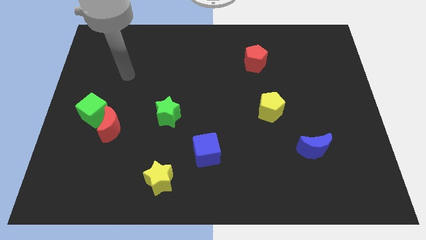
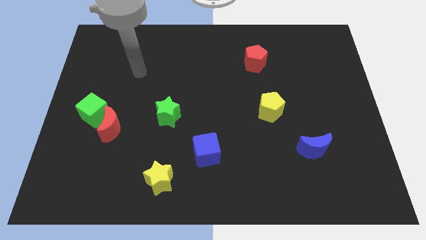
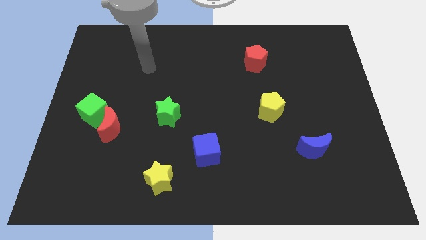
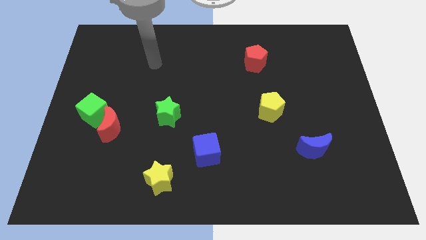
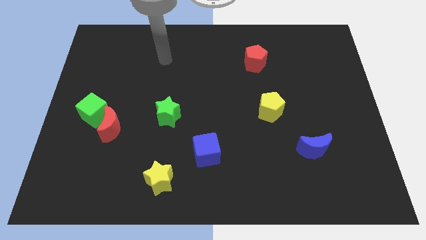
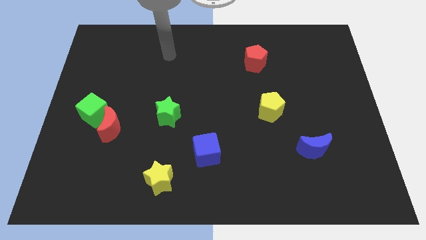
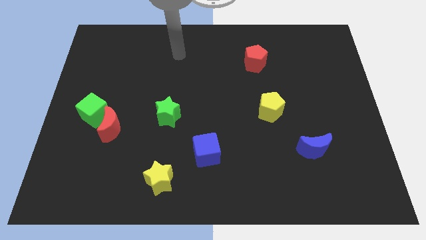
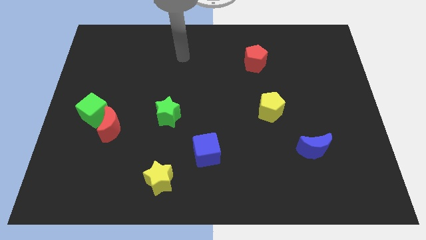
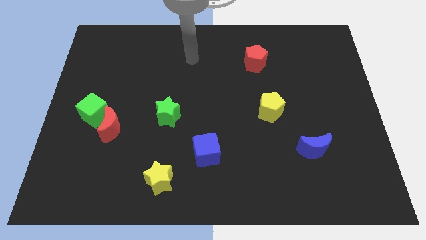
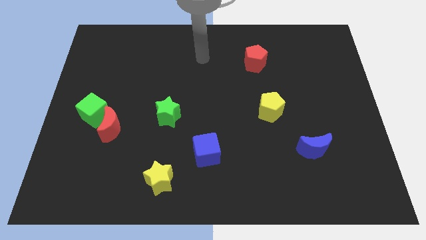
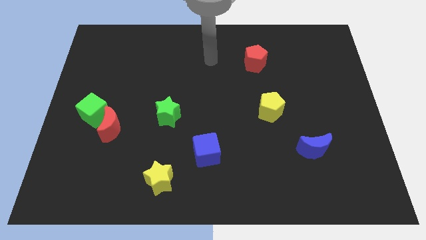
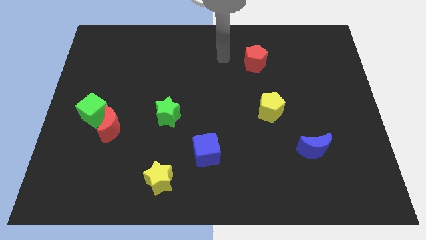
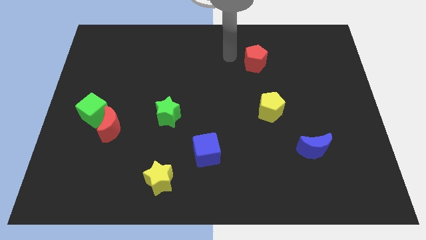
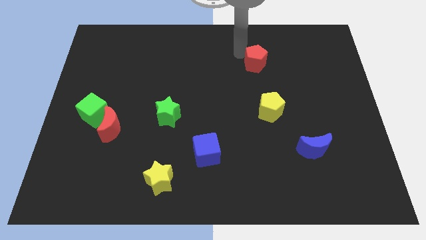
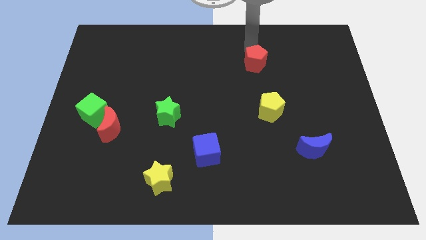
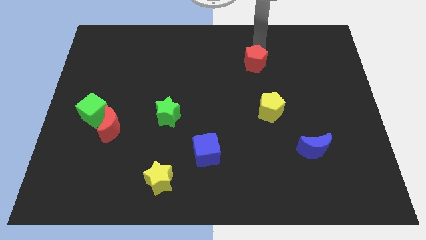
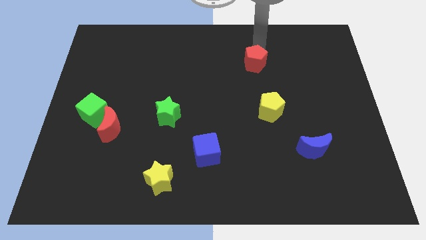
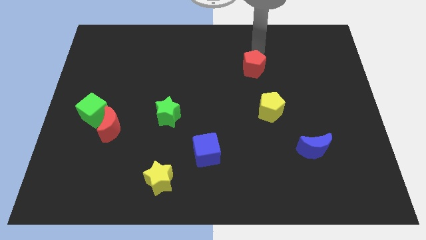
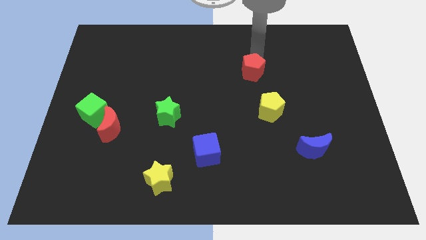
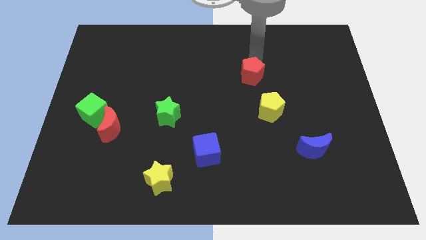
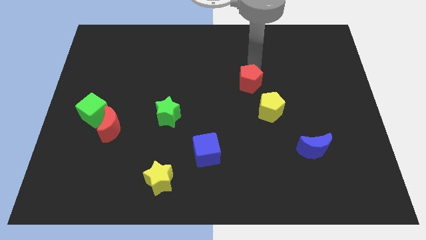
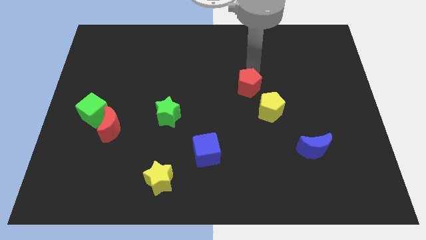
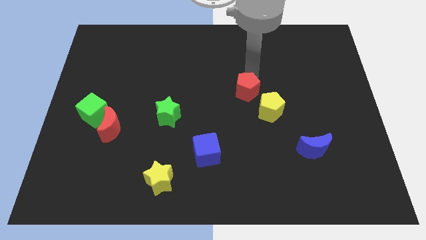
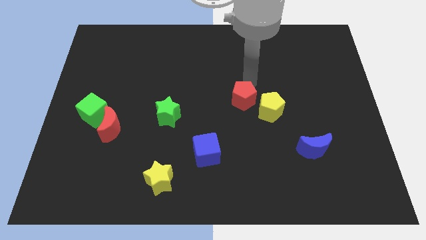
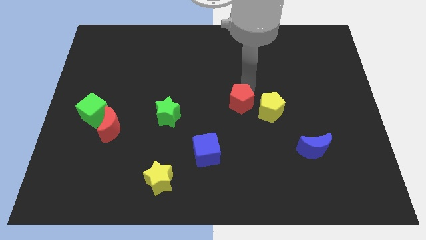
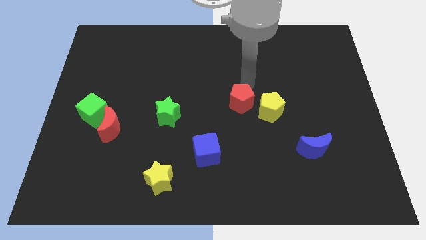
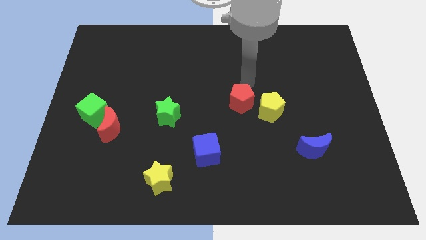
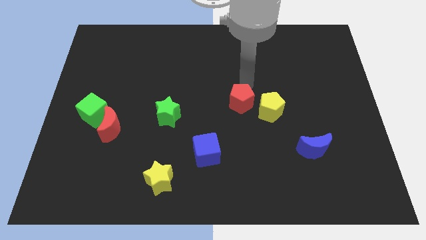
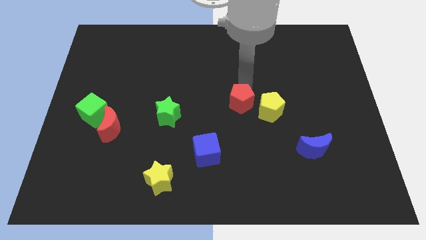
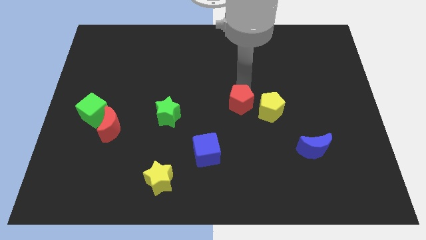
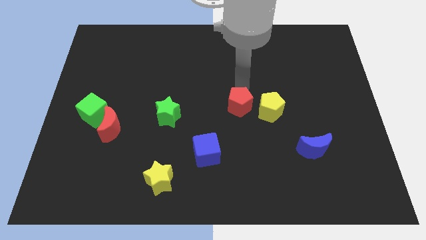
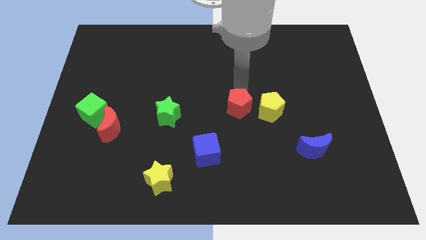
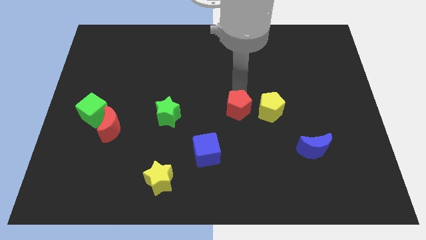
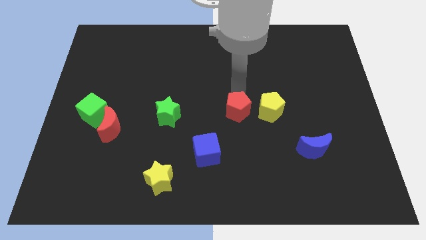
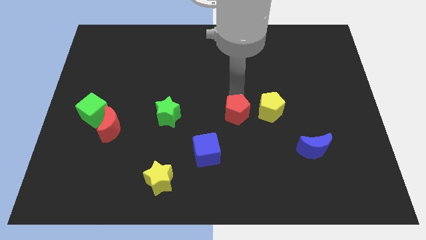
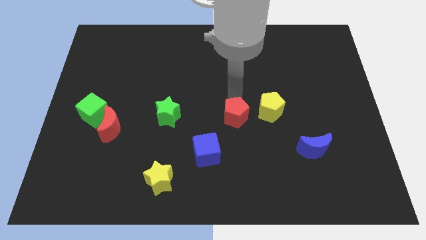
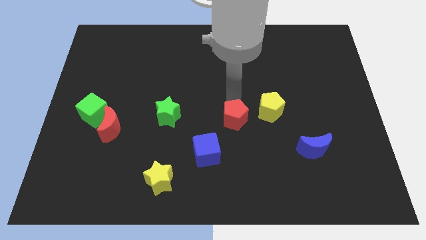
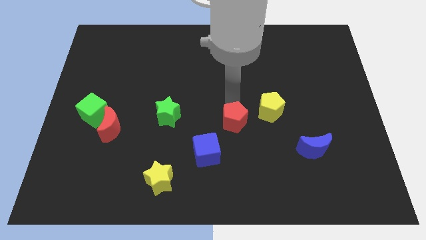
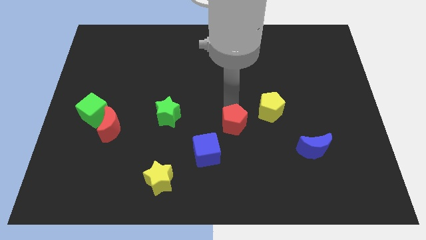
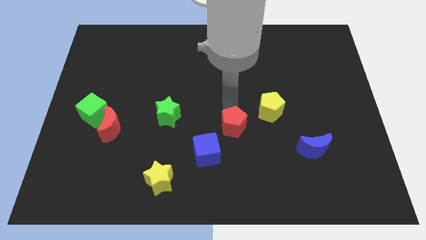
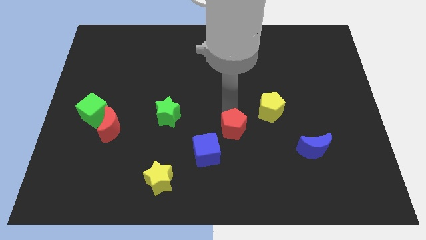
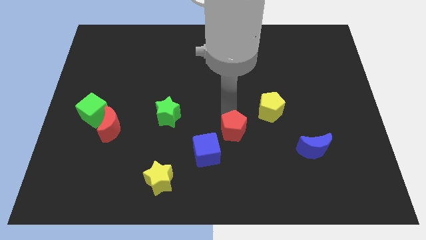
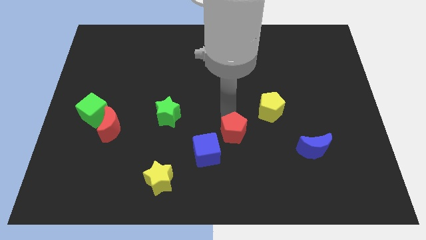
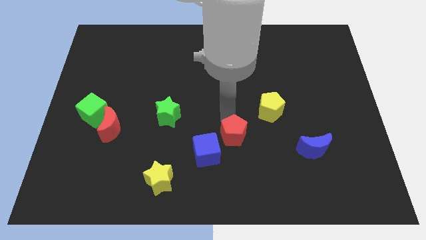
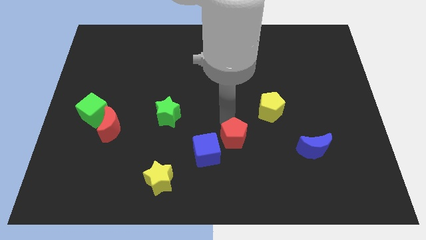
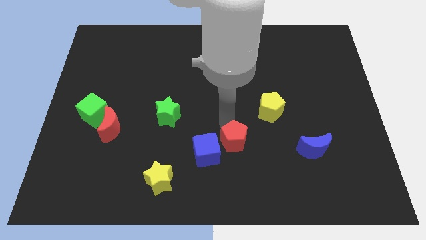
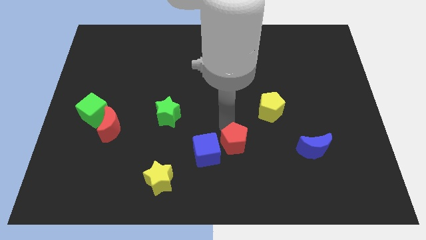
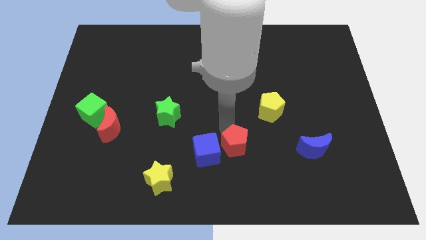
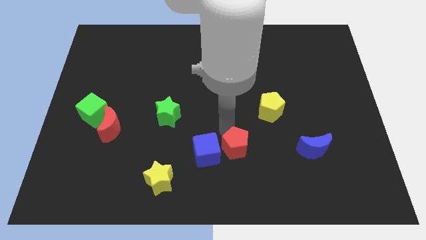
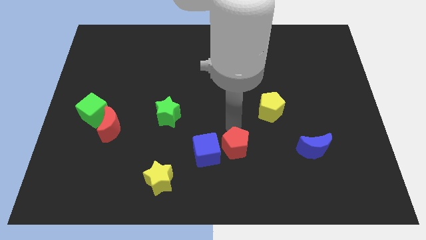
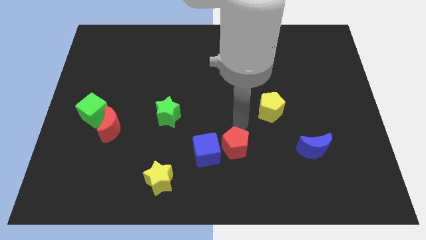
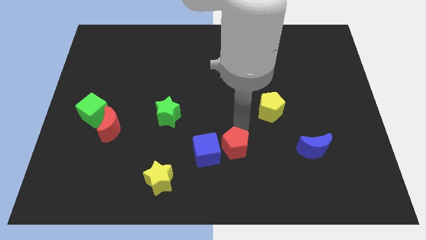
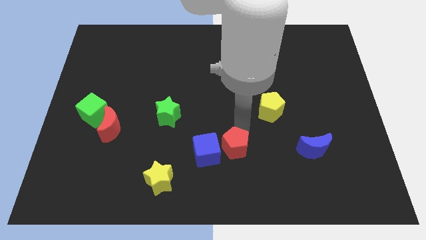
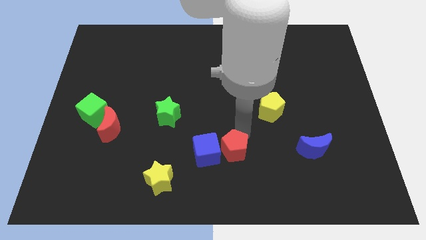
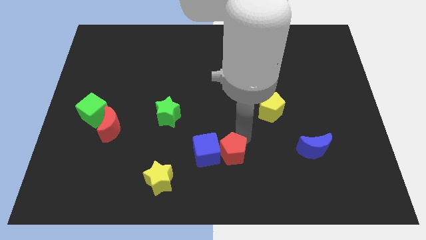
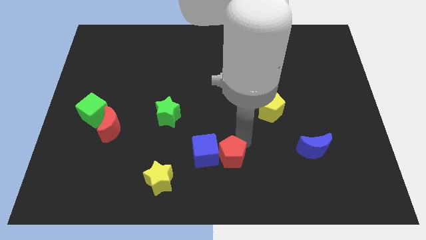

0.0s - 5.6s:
slide the red pentagon to the bottom side

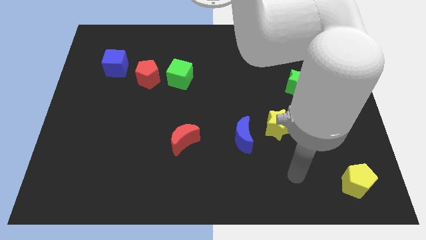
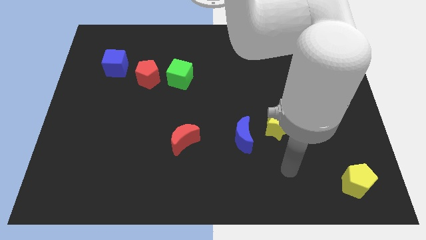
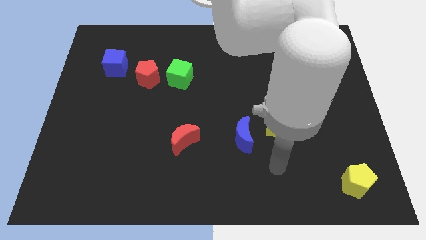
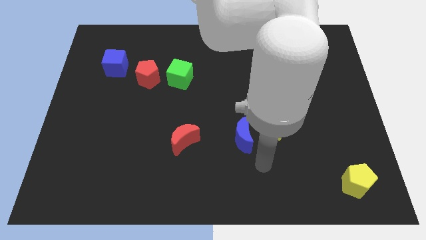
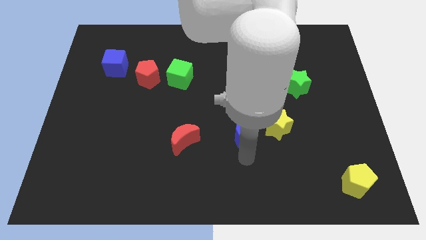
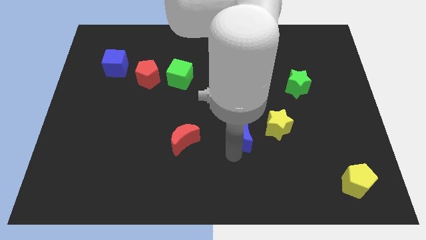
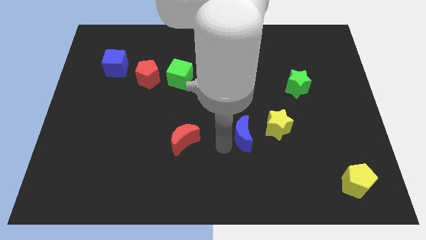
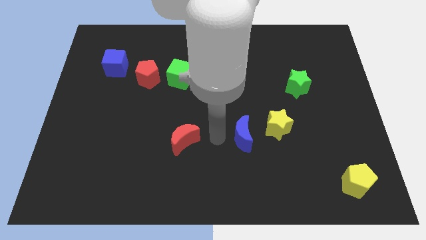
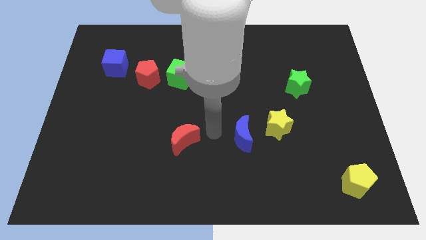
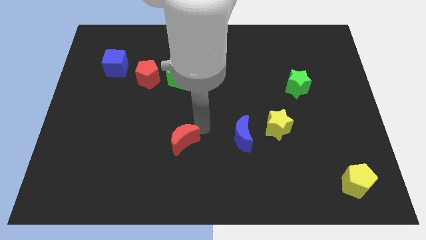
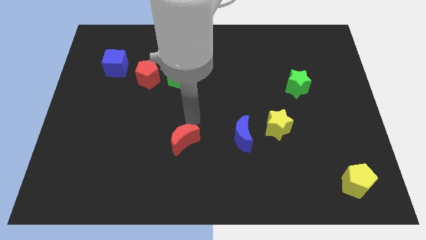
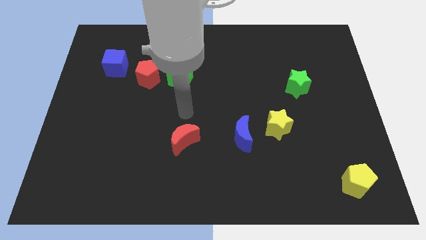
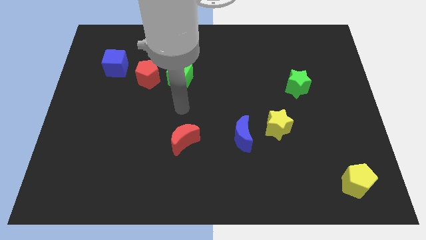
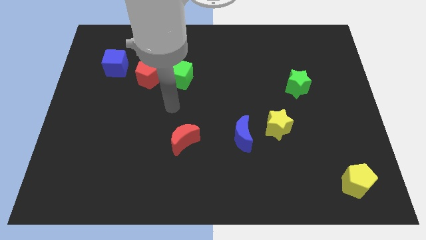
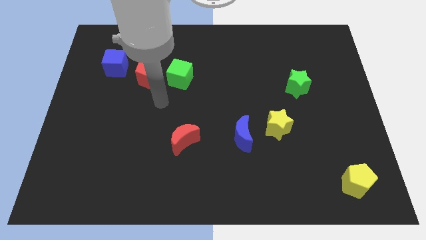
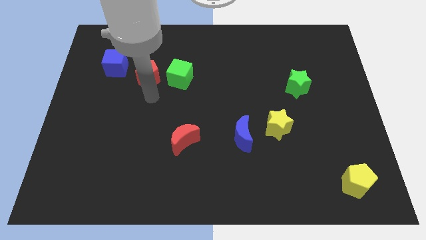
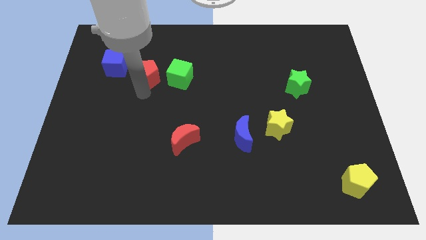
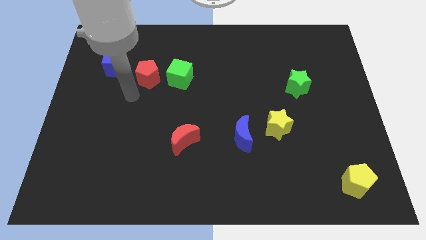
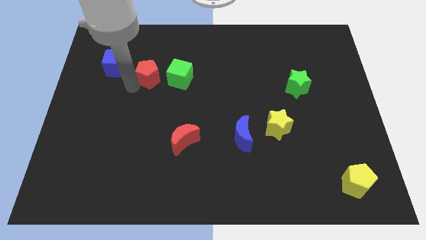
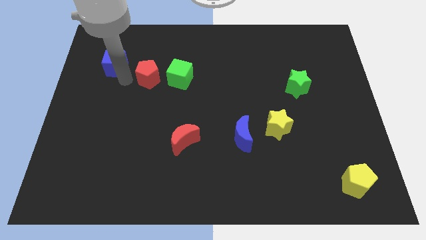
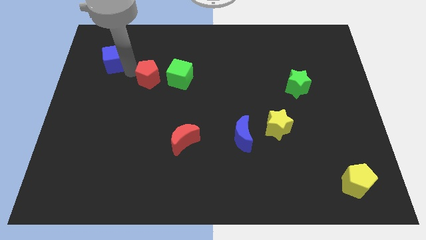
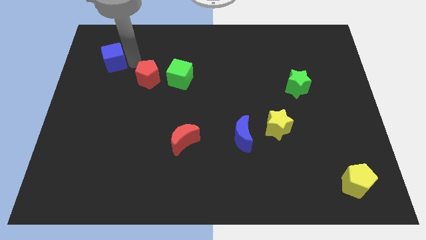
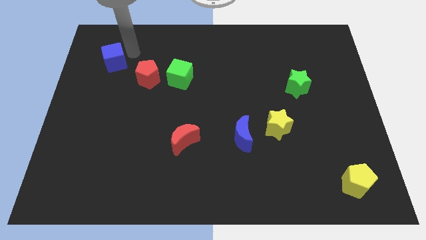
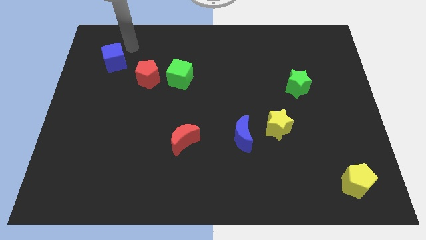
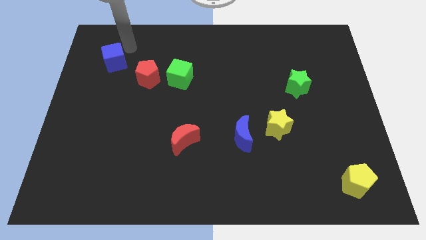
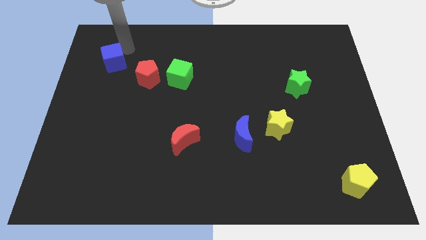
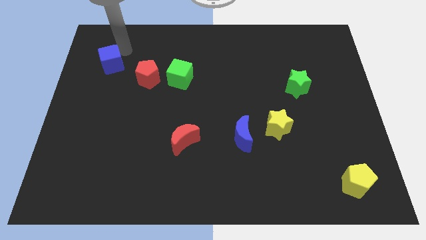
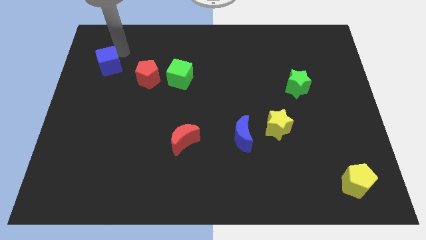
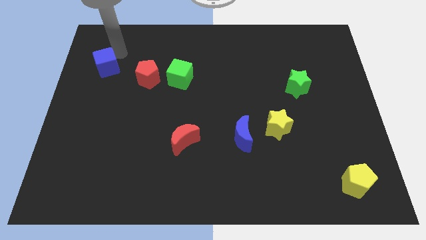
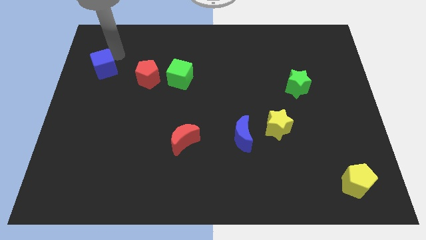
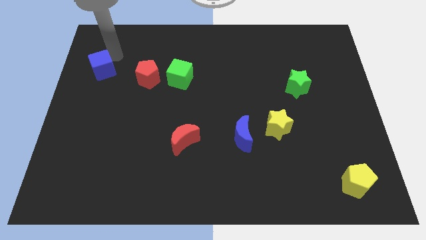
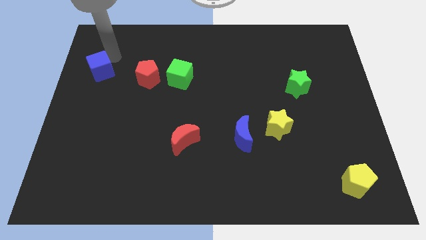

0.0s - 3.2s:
push the blue cube to the left side
